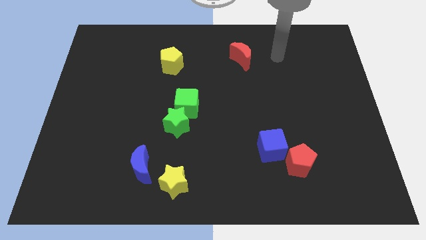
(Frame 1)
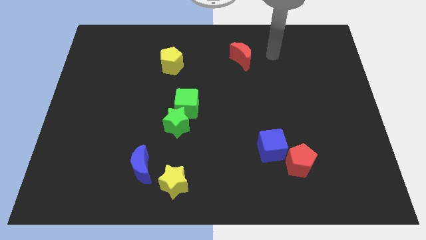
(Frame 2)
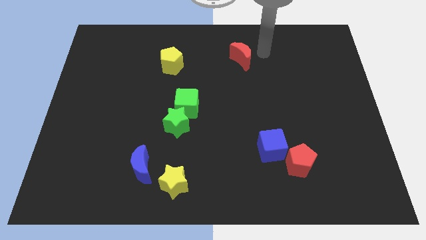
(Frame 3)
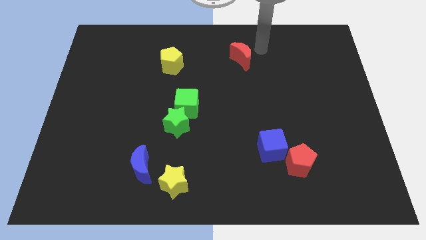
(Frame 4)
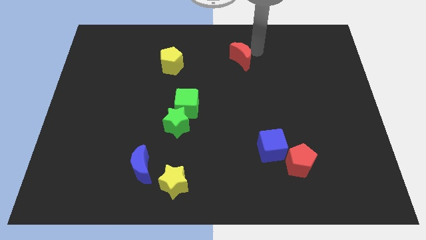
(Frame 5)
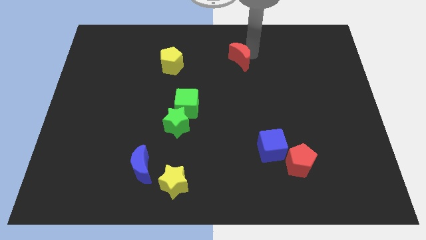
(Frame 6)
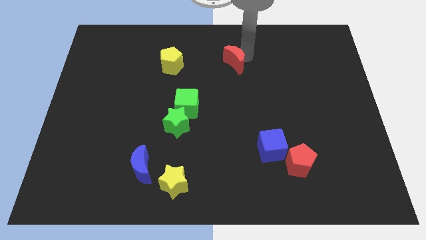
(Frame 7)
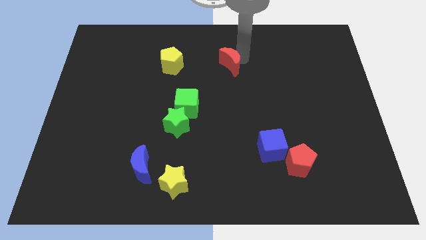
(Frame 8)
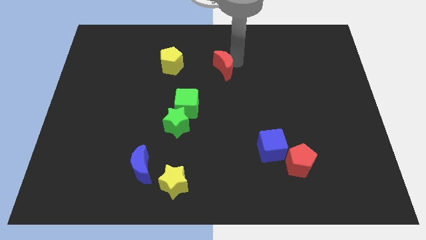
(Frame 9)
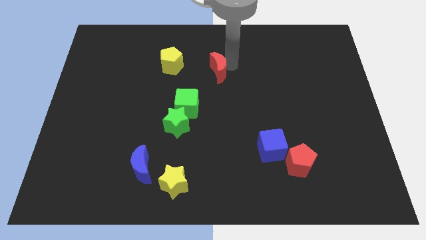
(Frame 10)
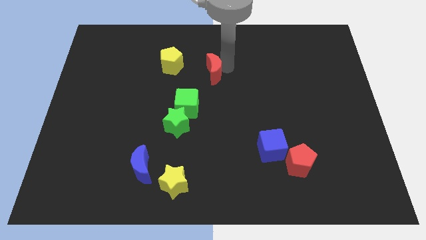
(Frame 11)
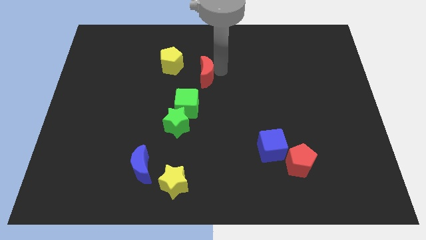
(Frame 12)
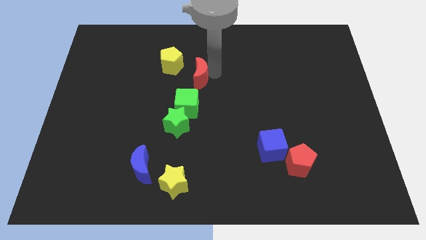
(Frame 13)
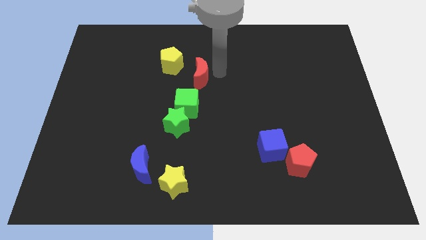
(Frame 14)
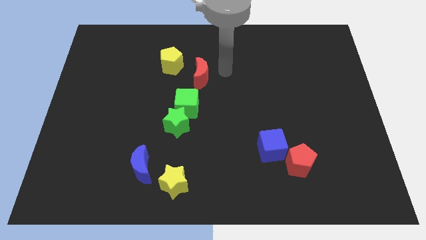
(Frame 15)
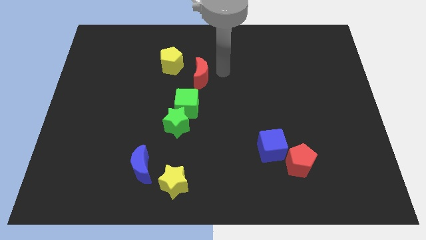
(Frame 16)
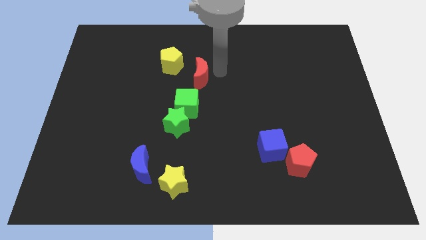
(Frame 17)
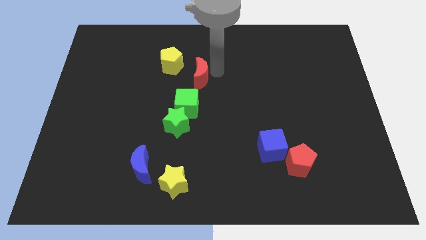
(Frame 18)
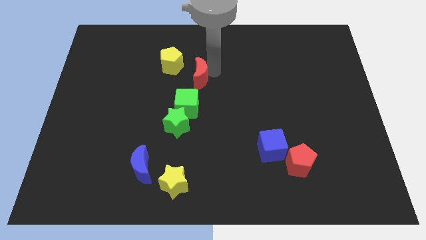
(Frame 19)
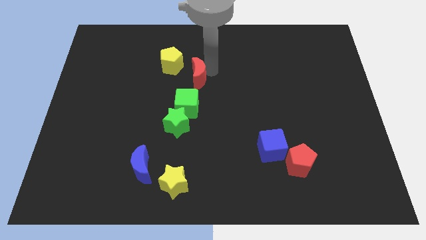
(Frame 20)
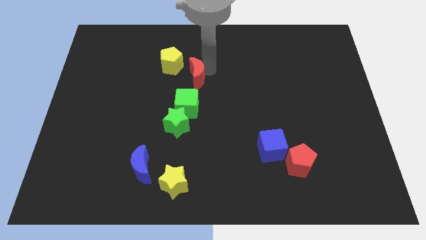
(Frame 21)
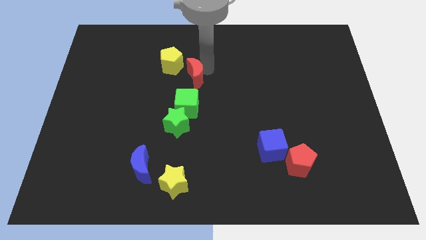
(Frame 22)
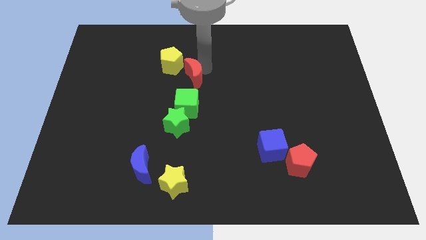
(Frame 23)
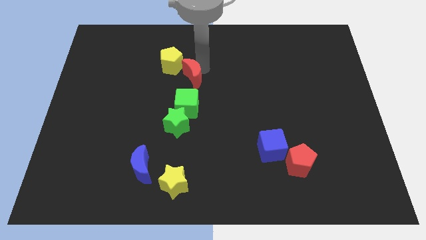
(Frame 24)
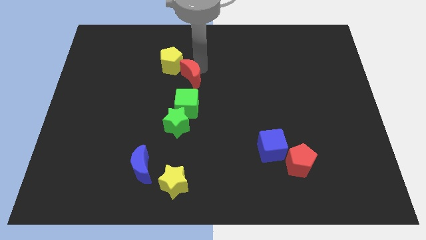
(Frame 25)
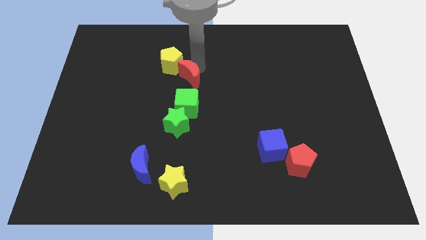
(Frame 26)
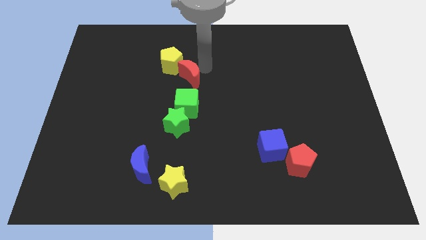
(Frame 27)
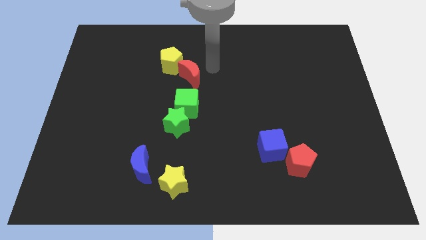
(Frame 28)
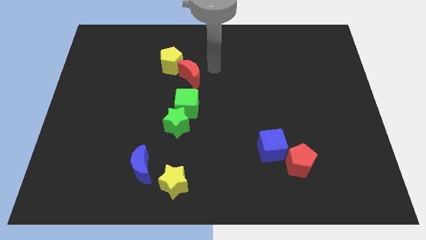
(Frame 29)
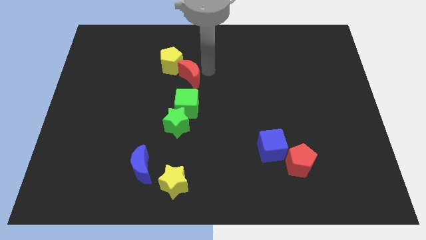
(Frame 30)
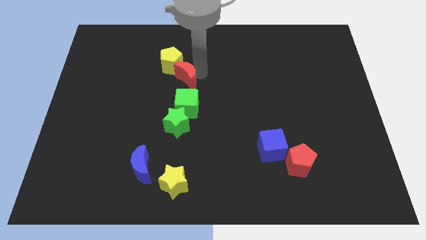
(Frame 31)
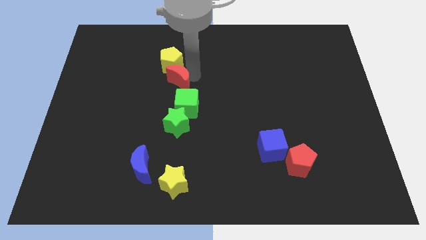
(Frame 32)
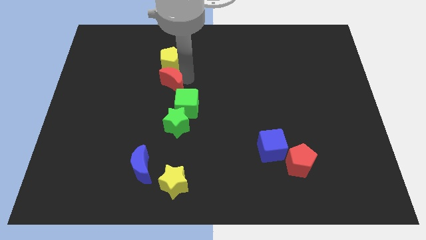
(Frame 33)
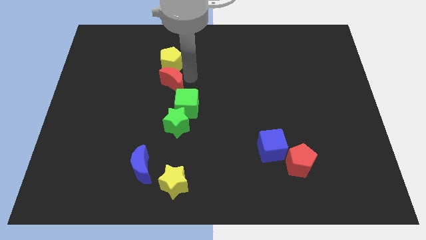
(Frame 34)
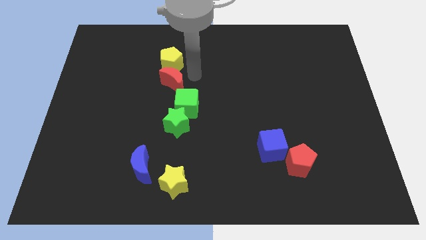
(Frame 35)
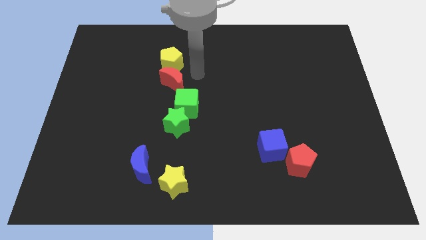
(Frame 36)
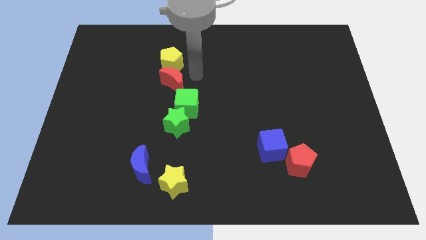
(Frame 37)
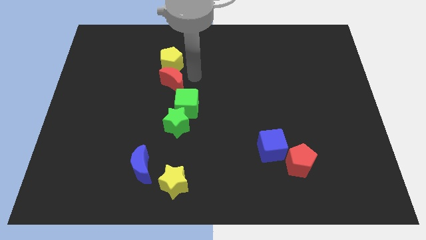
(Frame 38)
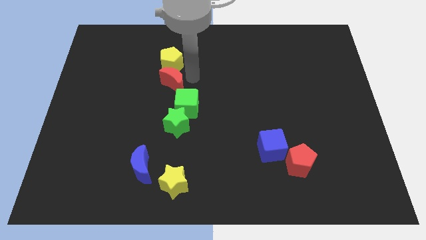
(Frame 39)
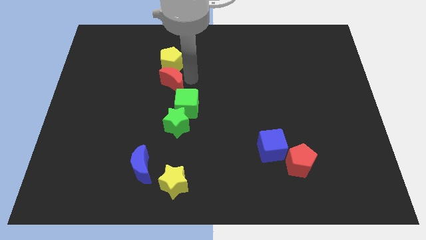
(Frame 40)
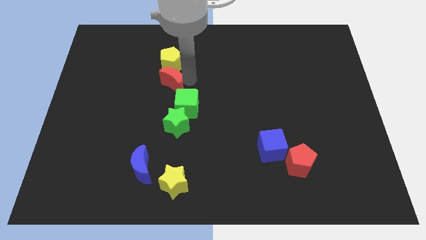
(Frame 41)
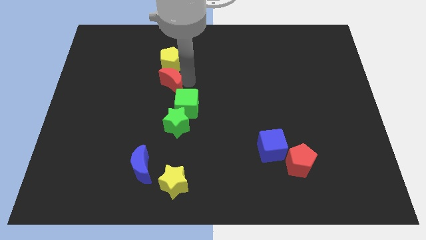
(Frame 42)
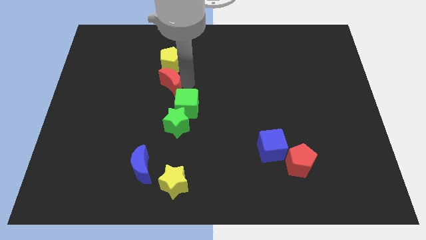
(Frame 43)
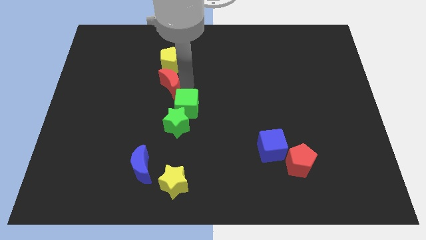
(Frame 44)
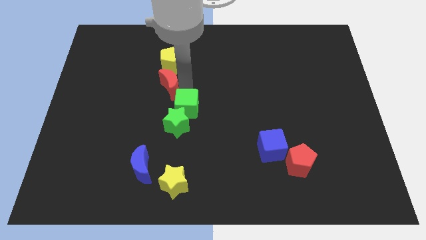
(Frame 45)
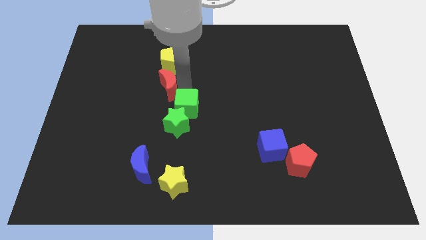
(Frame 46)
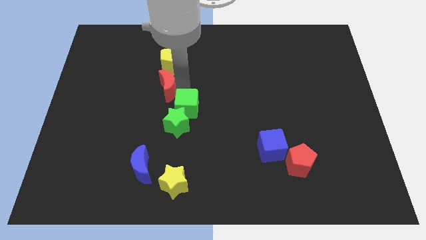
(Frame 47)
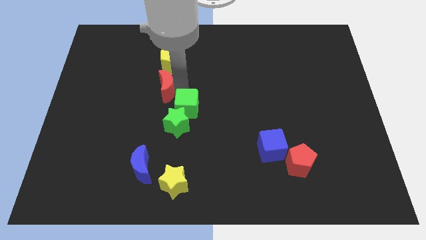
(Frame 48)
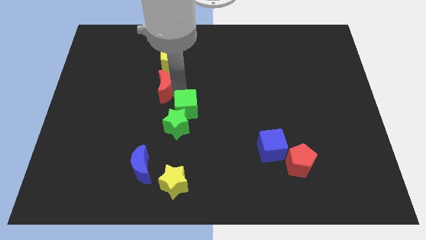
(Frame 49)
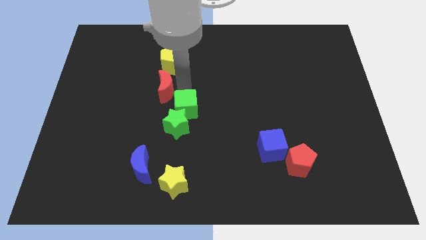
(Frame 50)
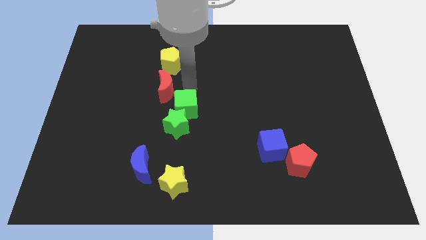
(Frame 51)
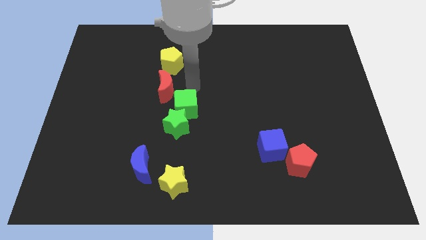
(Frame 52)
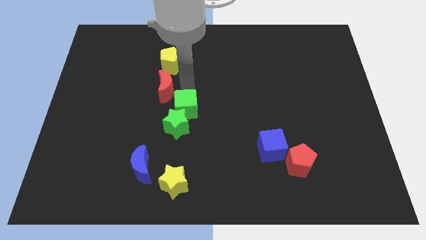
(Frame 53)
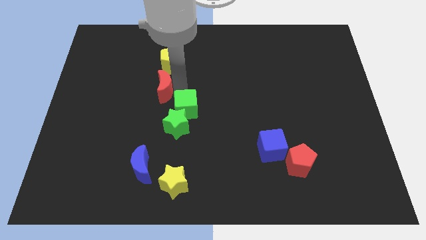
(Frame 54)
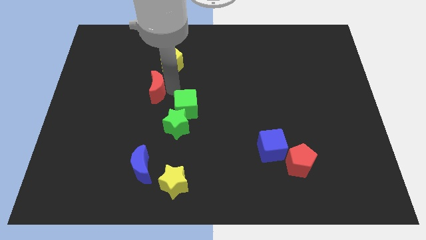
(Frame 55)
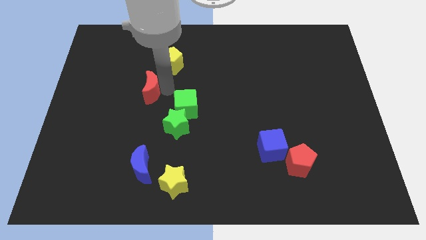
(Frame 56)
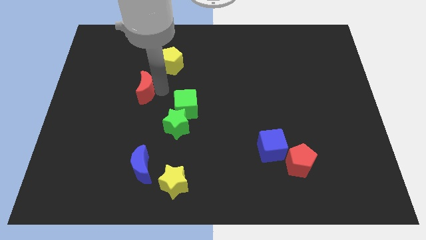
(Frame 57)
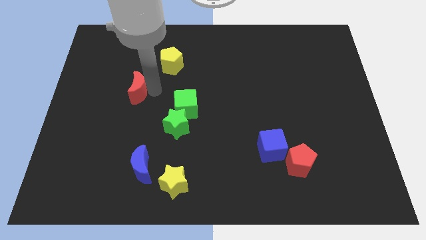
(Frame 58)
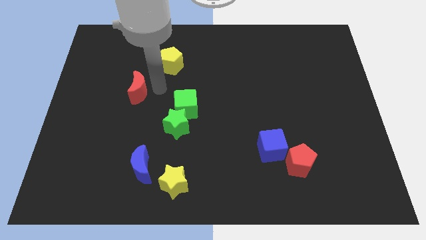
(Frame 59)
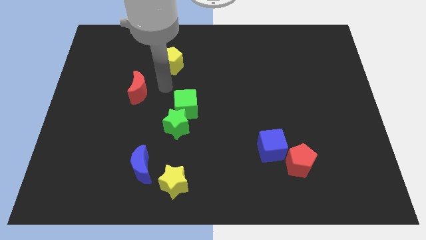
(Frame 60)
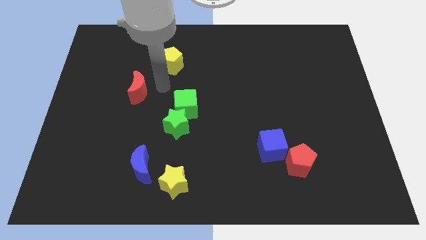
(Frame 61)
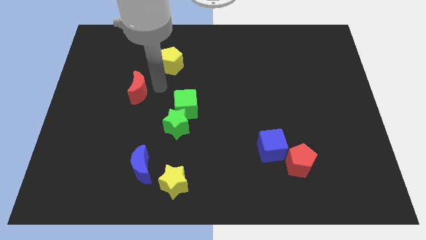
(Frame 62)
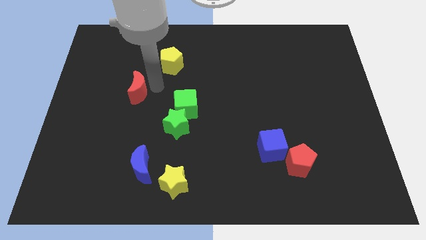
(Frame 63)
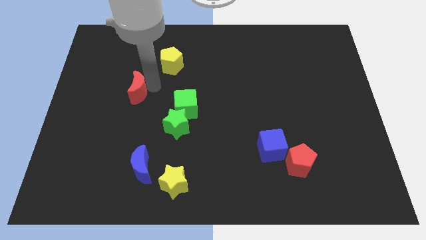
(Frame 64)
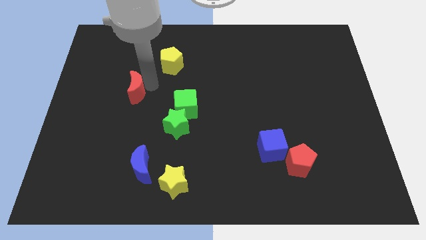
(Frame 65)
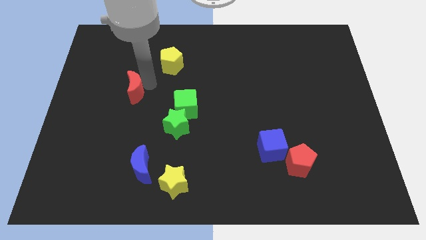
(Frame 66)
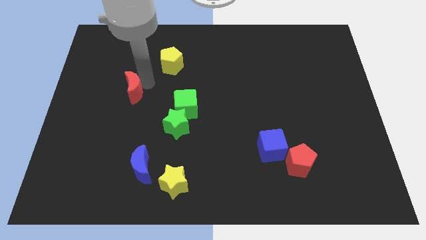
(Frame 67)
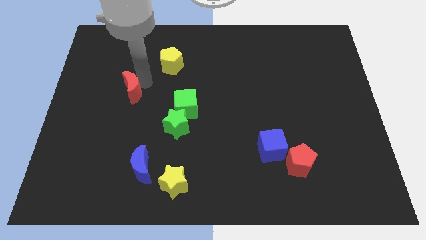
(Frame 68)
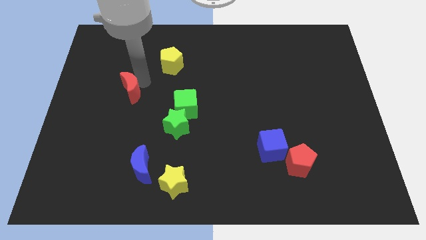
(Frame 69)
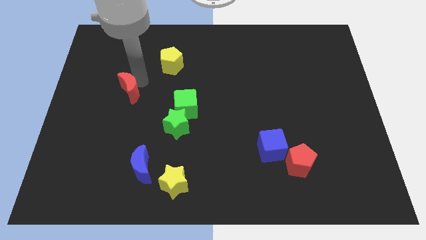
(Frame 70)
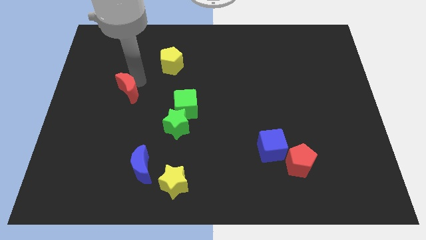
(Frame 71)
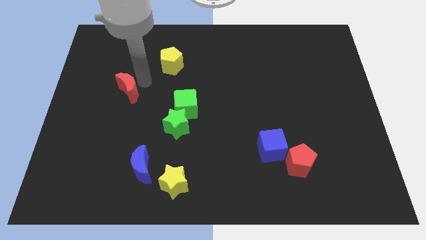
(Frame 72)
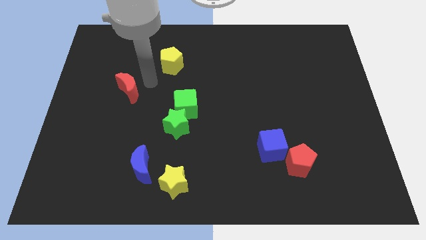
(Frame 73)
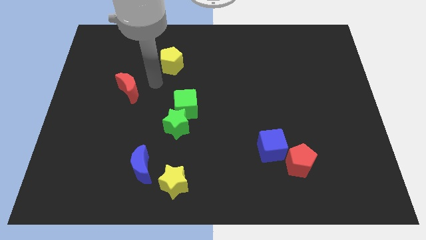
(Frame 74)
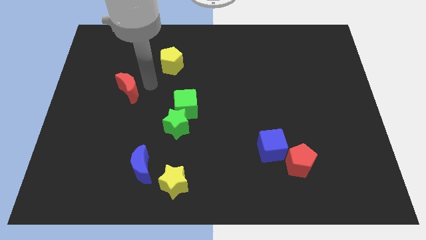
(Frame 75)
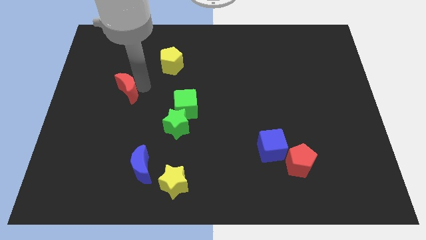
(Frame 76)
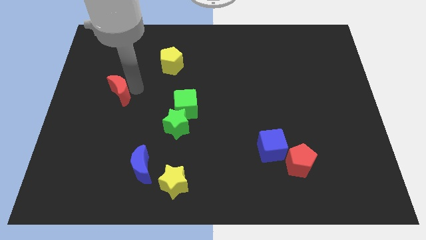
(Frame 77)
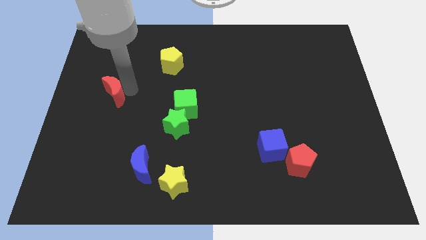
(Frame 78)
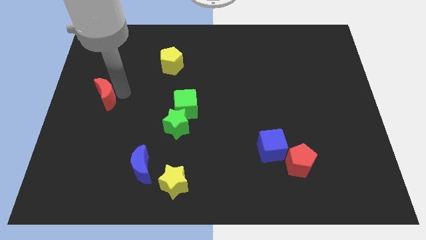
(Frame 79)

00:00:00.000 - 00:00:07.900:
slide the red moon to the left side of the board
